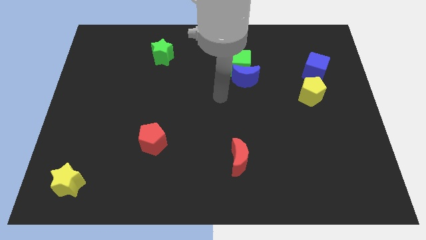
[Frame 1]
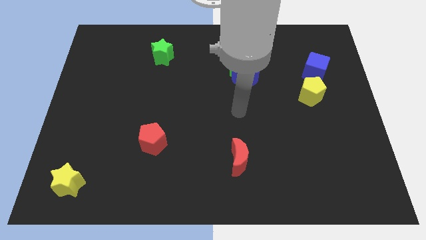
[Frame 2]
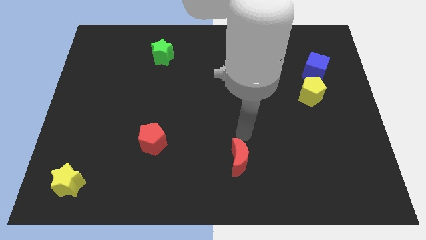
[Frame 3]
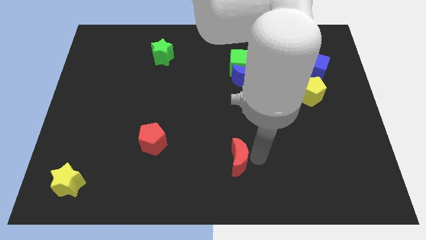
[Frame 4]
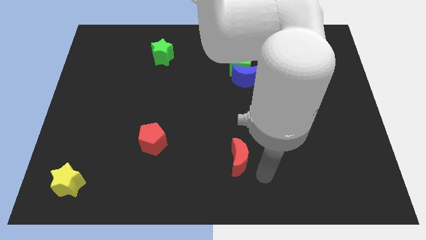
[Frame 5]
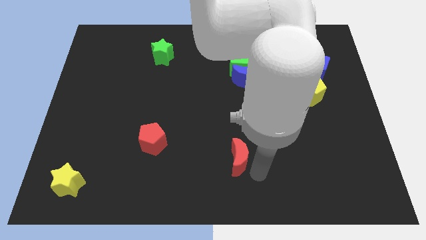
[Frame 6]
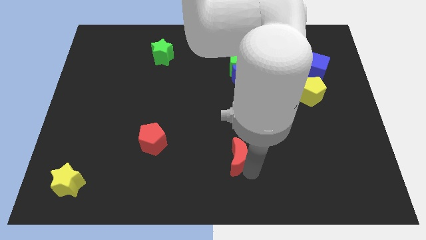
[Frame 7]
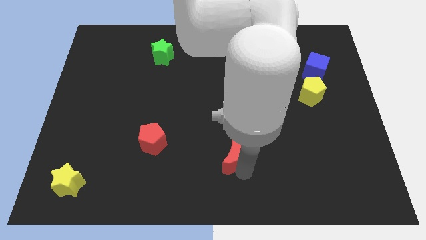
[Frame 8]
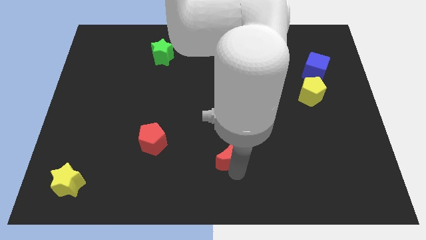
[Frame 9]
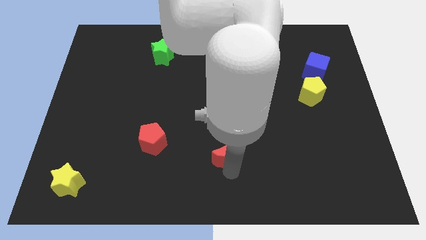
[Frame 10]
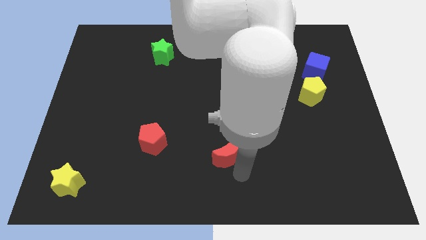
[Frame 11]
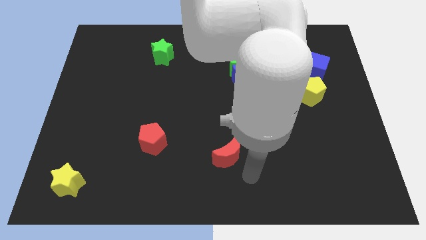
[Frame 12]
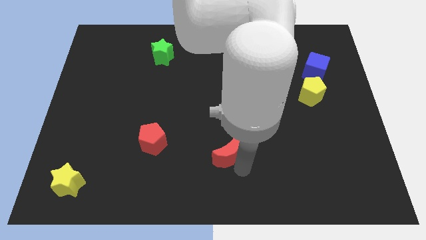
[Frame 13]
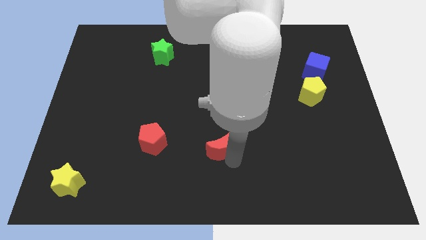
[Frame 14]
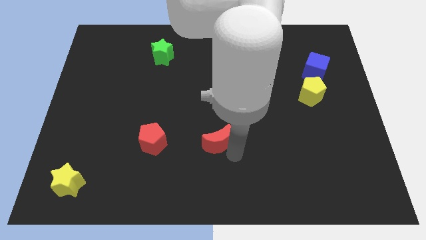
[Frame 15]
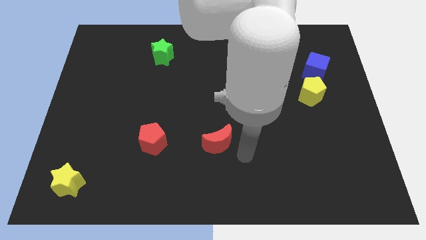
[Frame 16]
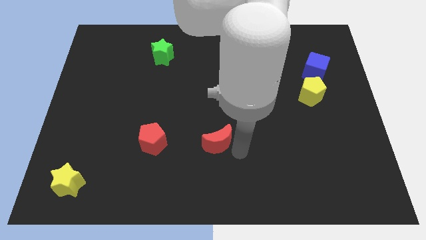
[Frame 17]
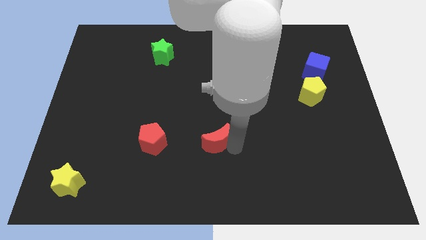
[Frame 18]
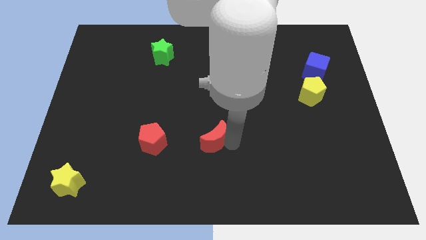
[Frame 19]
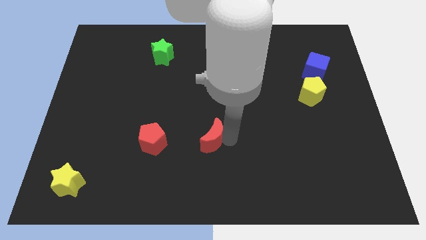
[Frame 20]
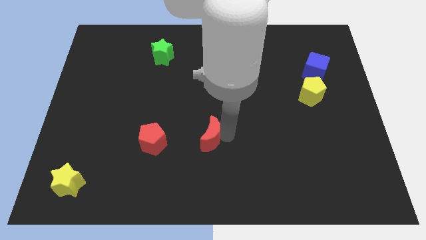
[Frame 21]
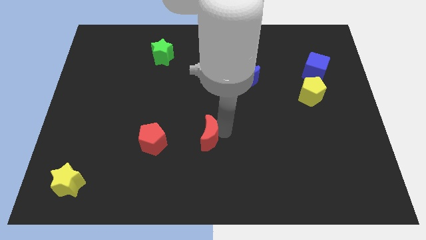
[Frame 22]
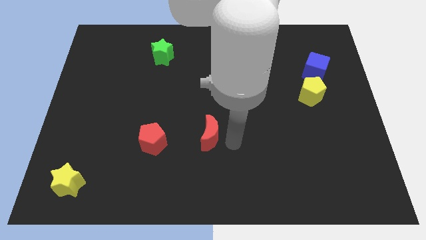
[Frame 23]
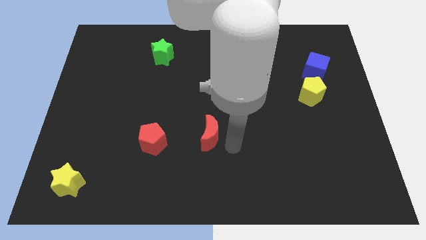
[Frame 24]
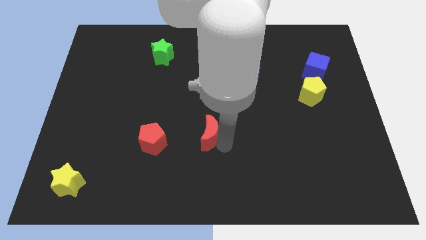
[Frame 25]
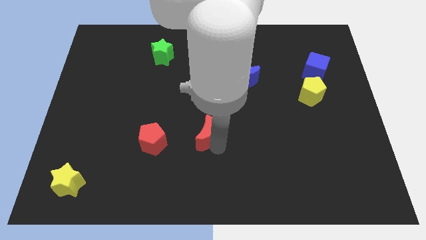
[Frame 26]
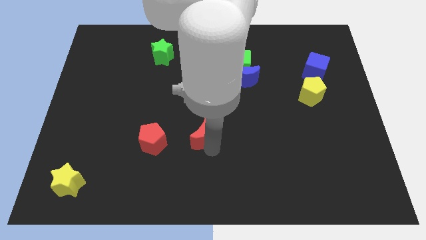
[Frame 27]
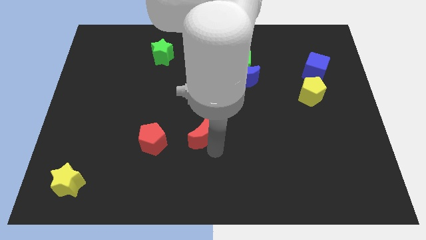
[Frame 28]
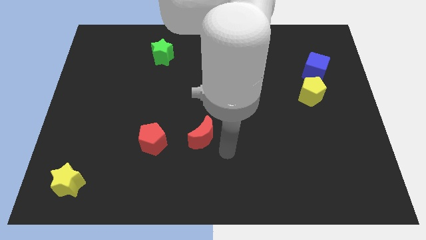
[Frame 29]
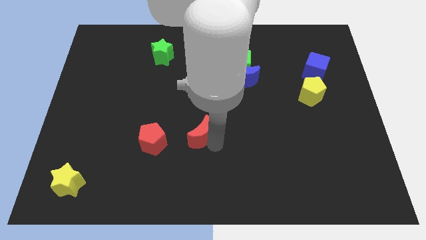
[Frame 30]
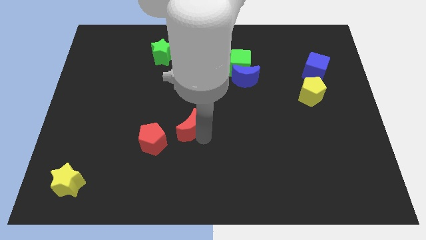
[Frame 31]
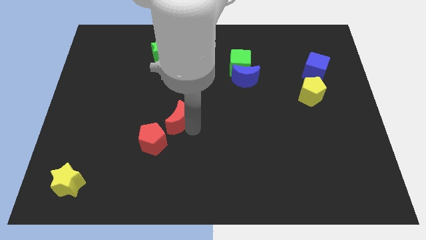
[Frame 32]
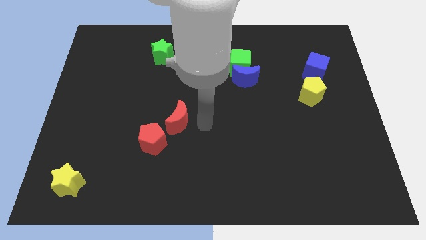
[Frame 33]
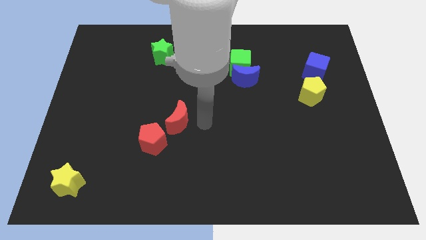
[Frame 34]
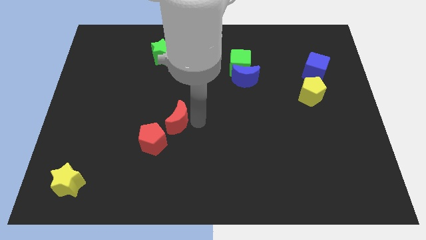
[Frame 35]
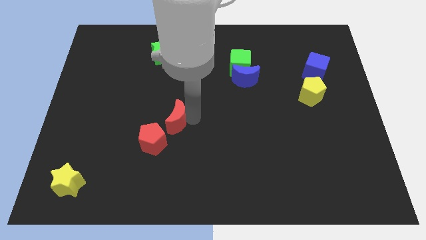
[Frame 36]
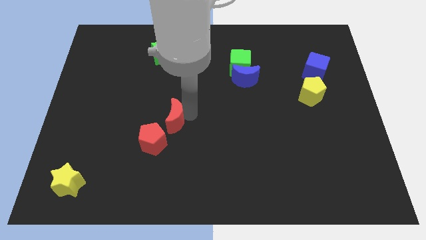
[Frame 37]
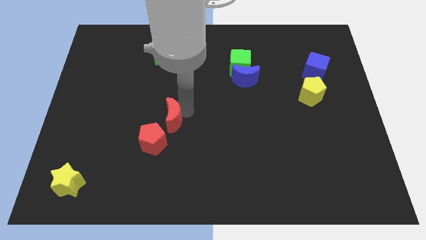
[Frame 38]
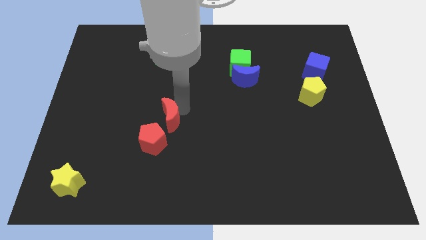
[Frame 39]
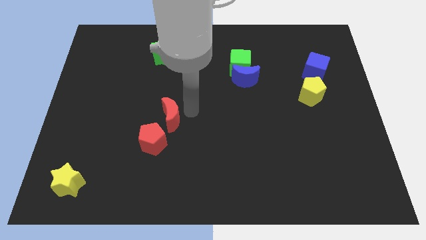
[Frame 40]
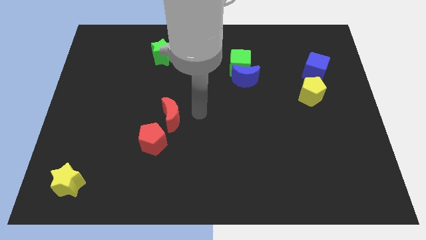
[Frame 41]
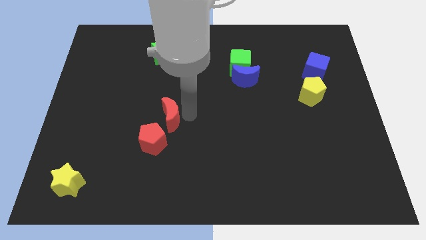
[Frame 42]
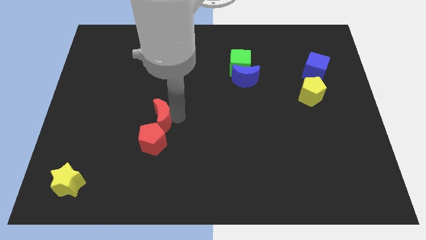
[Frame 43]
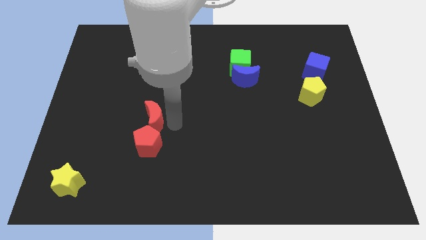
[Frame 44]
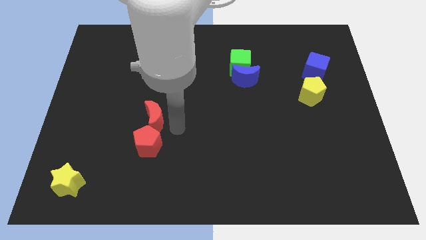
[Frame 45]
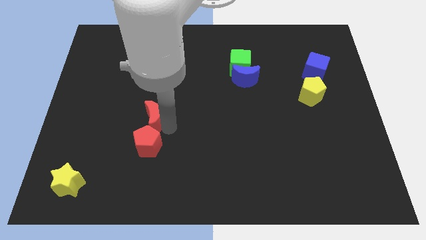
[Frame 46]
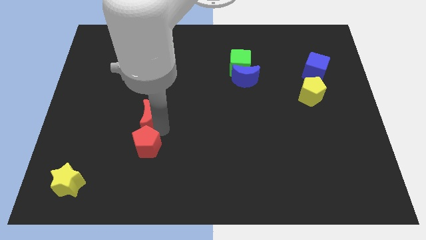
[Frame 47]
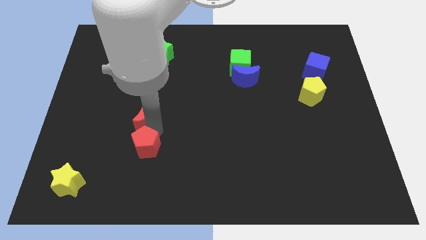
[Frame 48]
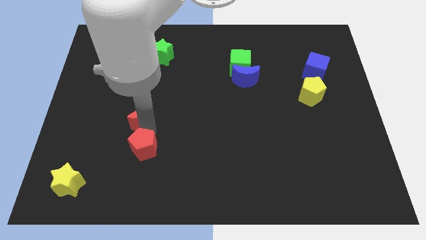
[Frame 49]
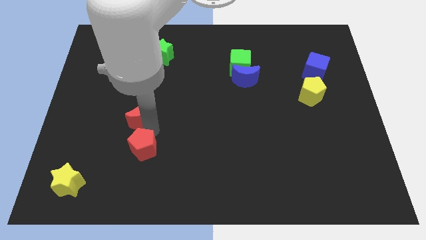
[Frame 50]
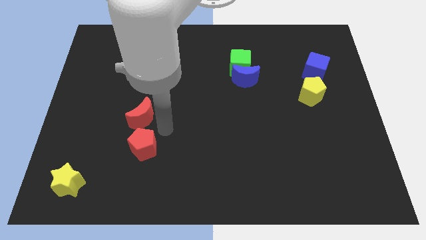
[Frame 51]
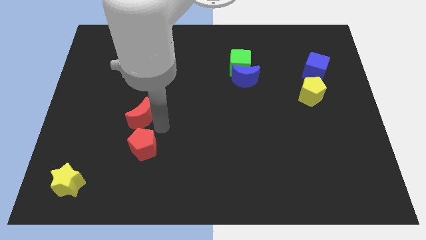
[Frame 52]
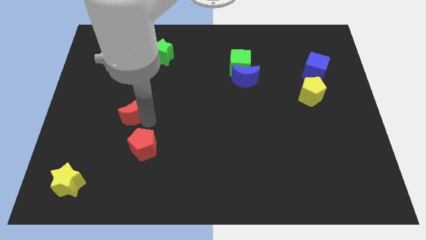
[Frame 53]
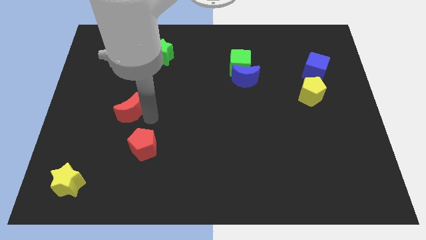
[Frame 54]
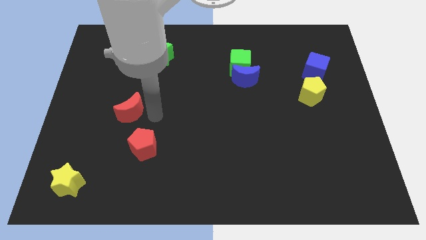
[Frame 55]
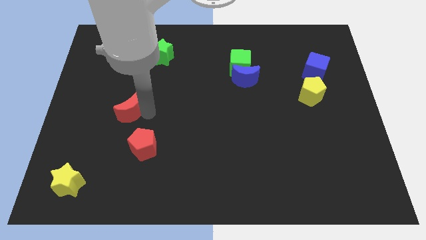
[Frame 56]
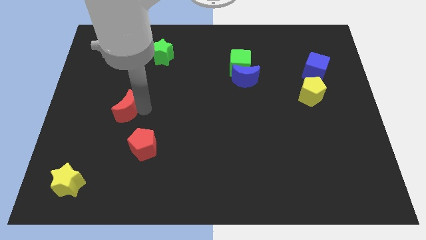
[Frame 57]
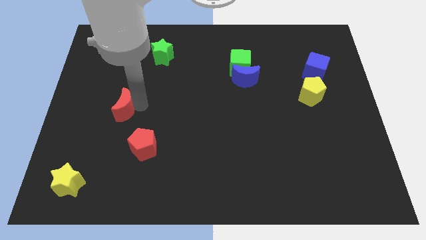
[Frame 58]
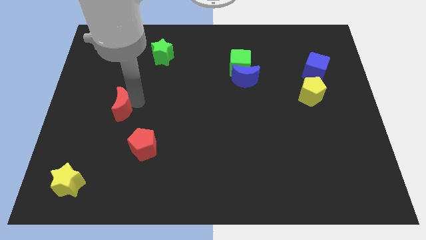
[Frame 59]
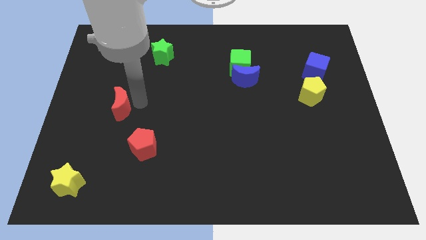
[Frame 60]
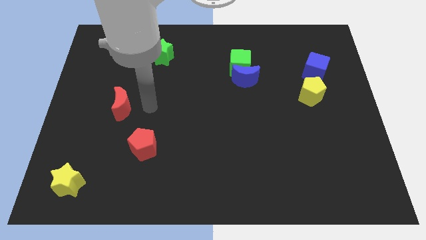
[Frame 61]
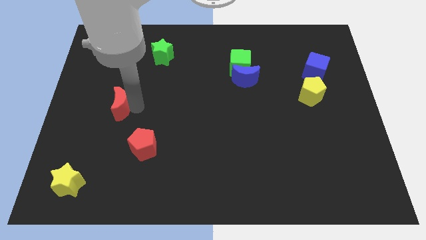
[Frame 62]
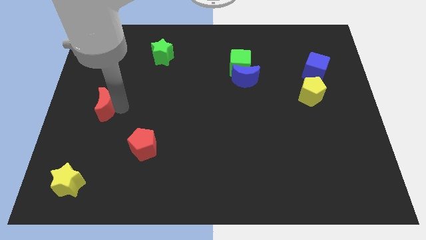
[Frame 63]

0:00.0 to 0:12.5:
put the red moon to the center left
